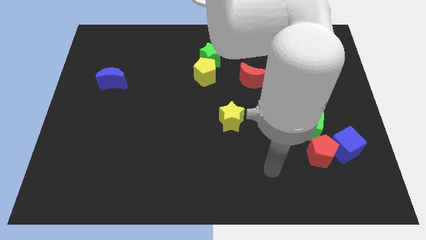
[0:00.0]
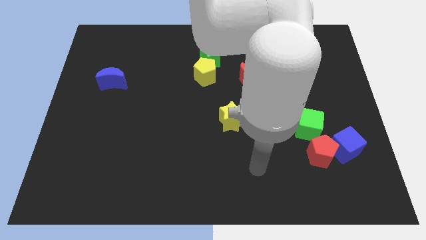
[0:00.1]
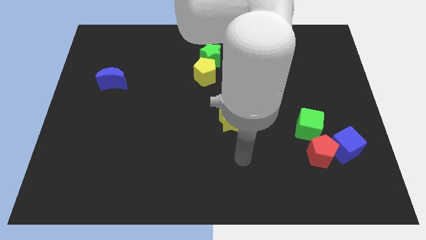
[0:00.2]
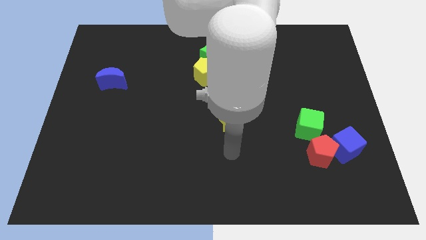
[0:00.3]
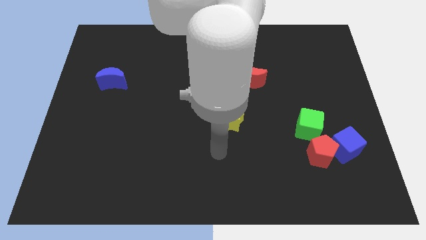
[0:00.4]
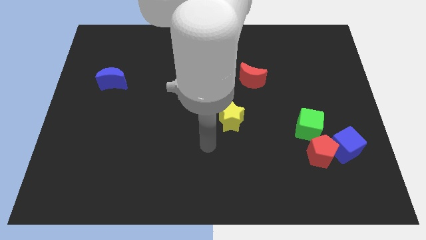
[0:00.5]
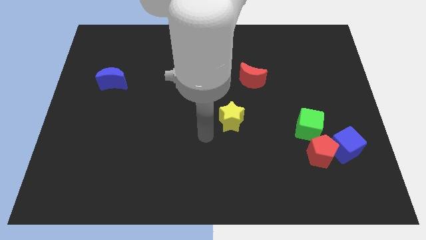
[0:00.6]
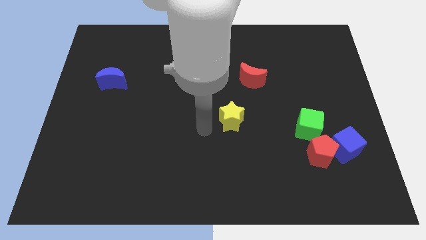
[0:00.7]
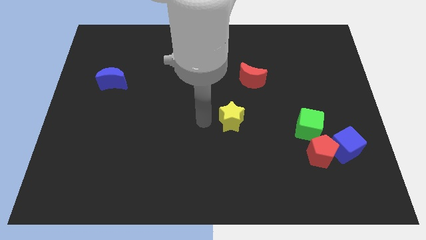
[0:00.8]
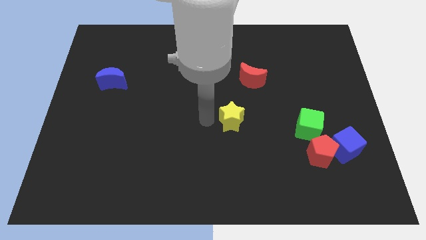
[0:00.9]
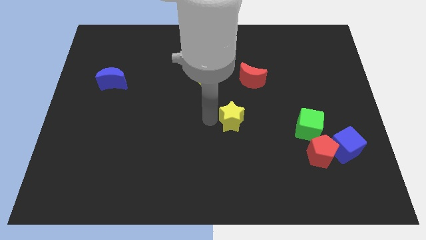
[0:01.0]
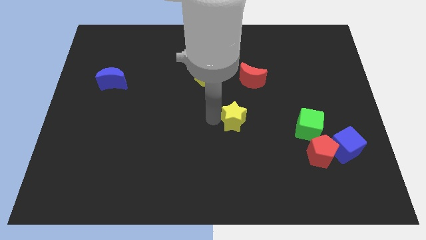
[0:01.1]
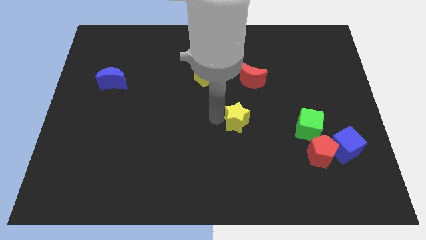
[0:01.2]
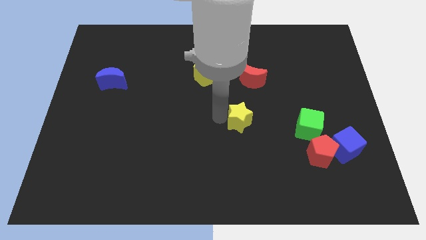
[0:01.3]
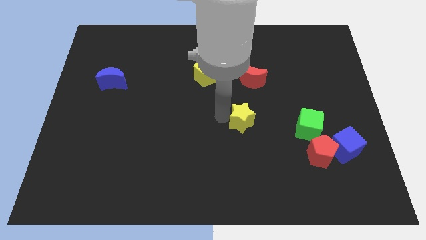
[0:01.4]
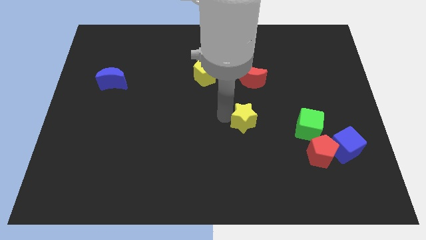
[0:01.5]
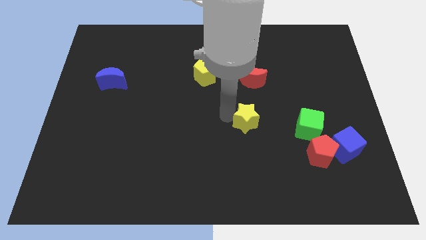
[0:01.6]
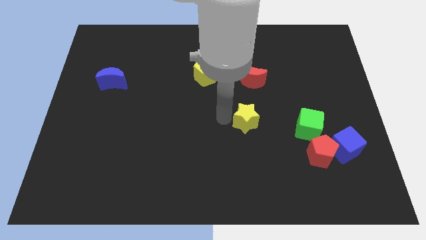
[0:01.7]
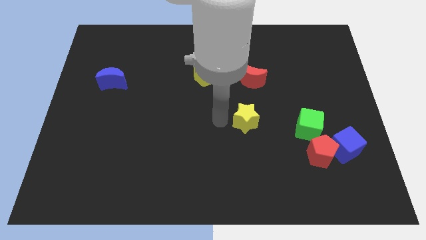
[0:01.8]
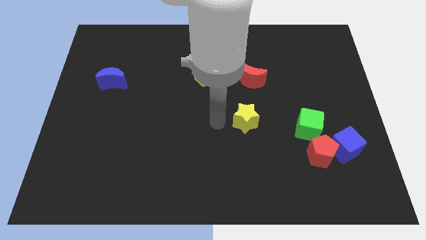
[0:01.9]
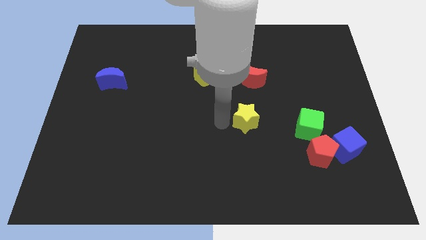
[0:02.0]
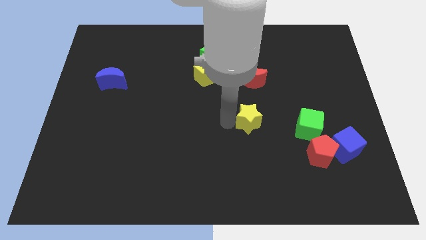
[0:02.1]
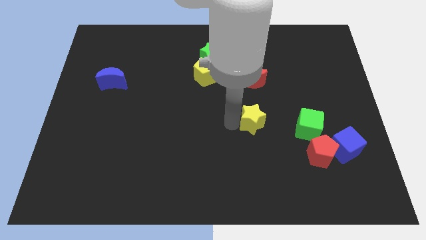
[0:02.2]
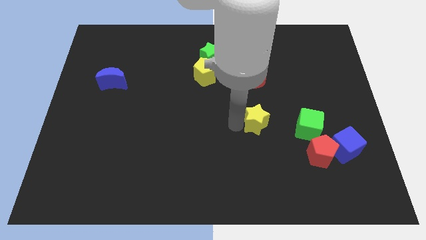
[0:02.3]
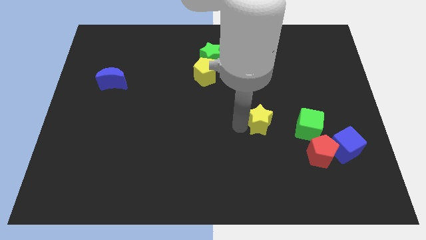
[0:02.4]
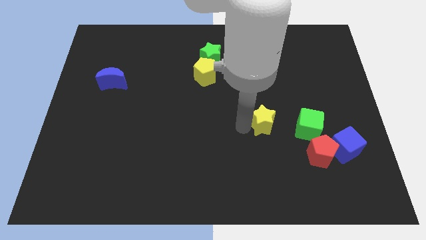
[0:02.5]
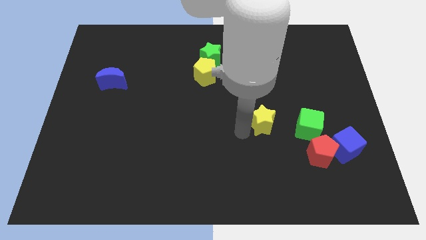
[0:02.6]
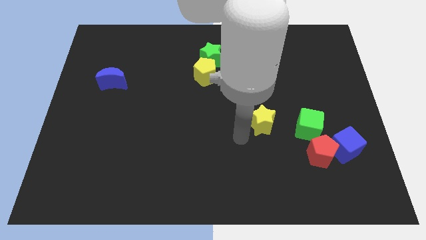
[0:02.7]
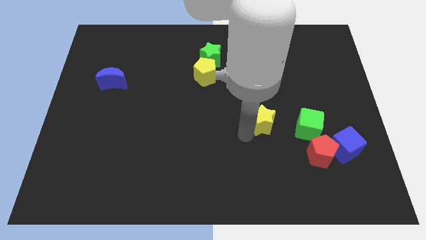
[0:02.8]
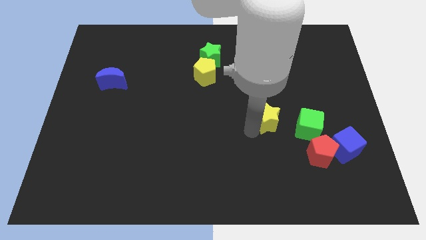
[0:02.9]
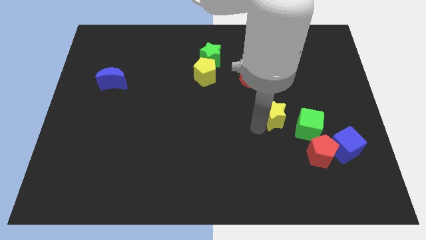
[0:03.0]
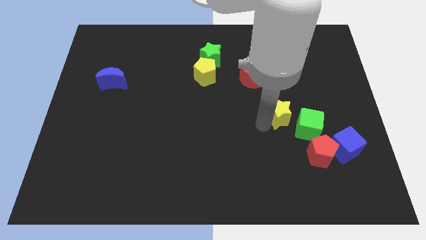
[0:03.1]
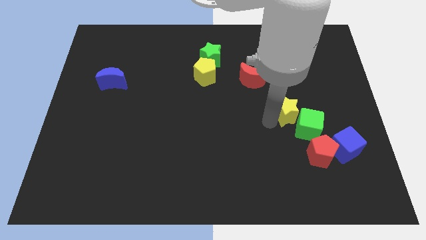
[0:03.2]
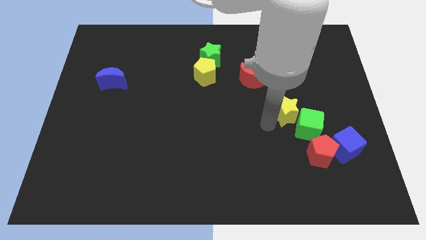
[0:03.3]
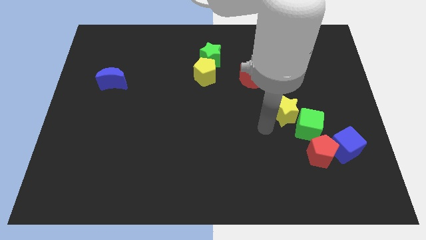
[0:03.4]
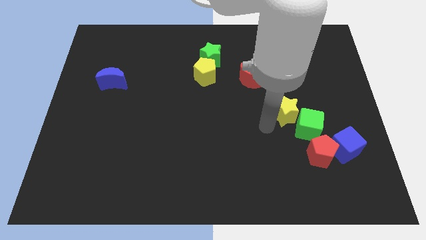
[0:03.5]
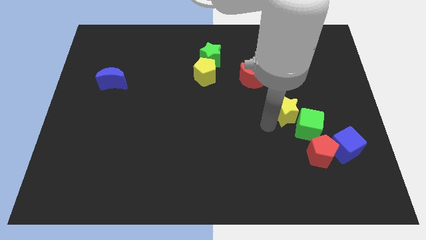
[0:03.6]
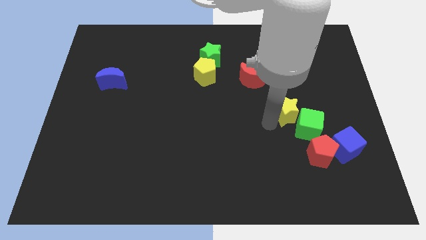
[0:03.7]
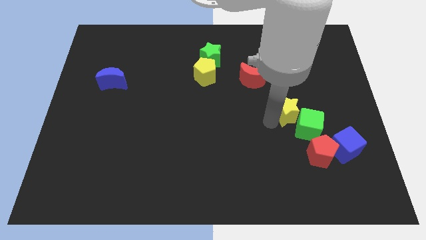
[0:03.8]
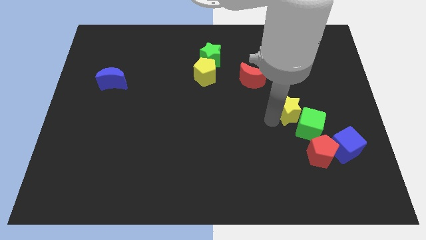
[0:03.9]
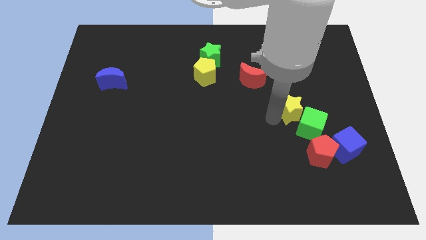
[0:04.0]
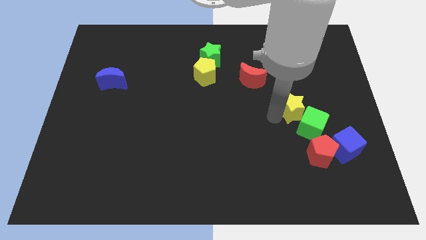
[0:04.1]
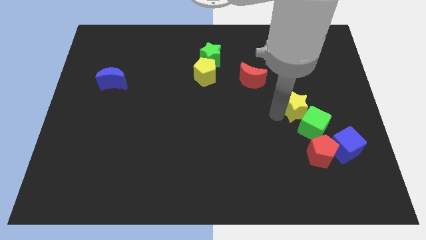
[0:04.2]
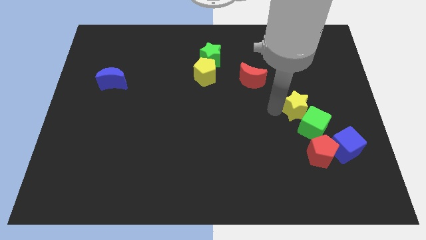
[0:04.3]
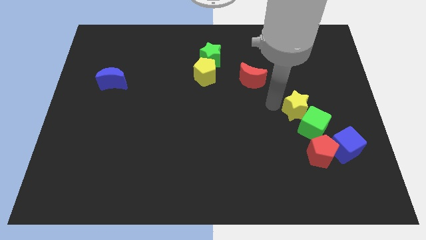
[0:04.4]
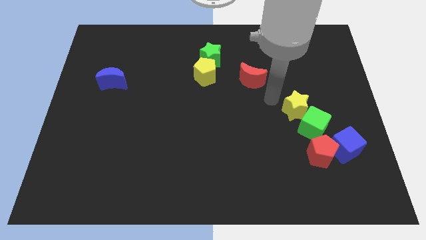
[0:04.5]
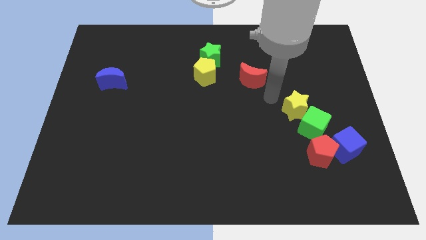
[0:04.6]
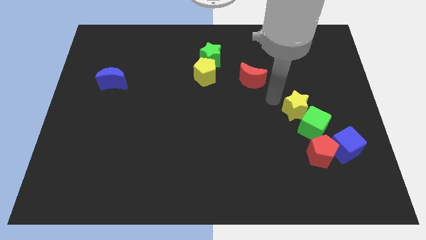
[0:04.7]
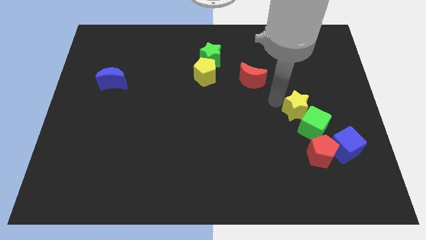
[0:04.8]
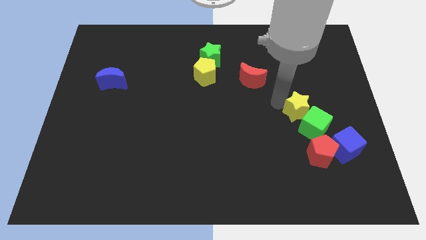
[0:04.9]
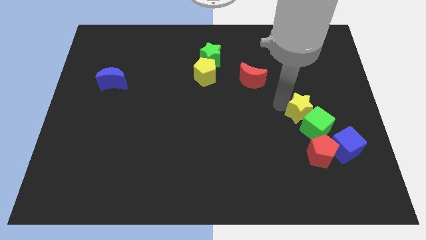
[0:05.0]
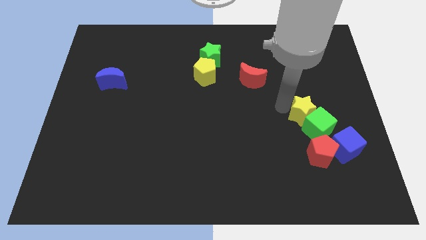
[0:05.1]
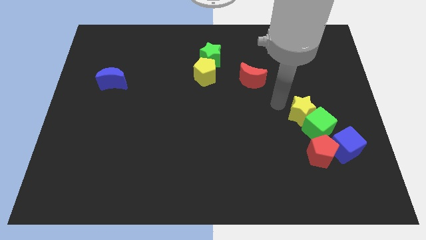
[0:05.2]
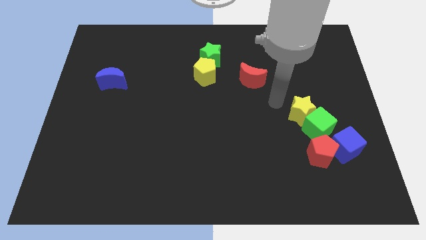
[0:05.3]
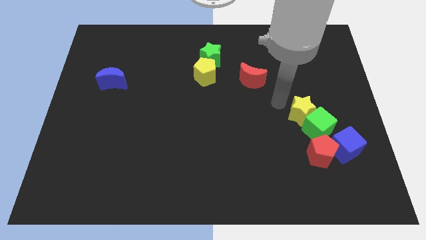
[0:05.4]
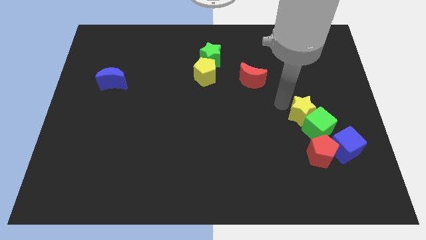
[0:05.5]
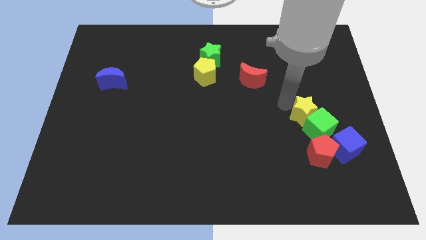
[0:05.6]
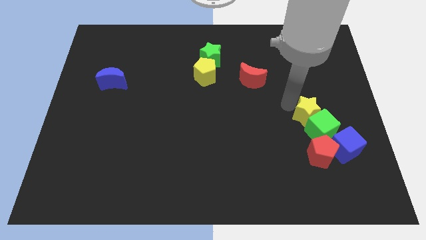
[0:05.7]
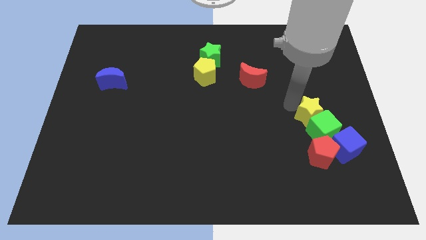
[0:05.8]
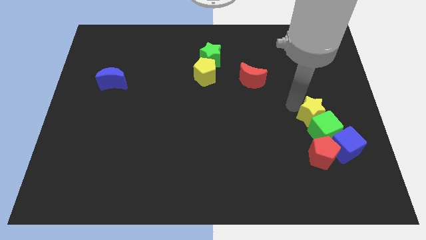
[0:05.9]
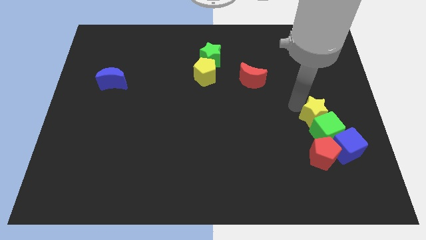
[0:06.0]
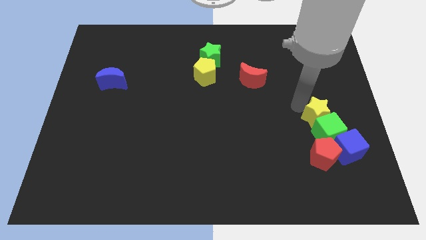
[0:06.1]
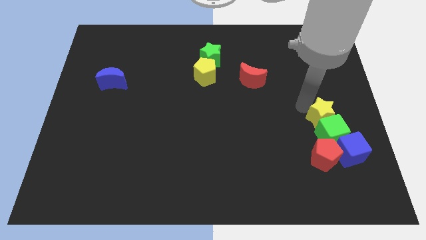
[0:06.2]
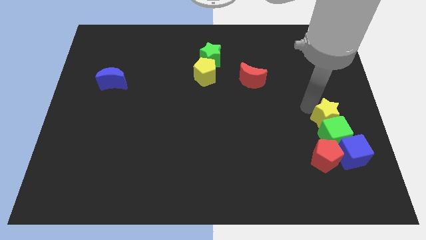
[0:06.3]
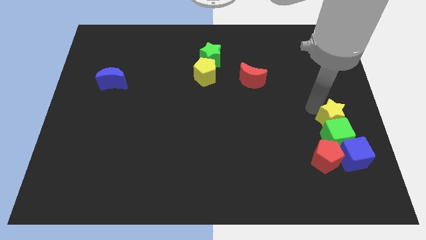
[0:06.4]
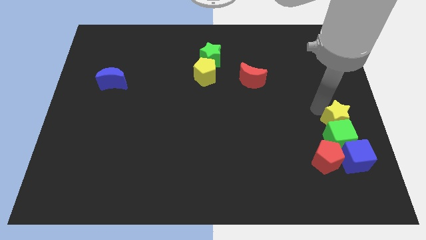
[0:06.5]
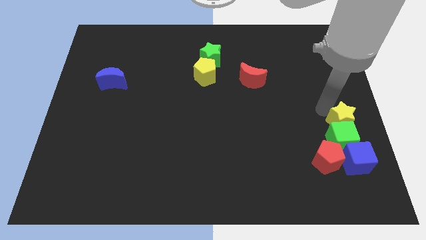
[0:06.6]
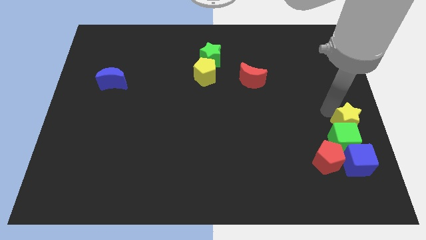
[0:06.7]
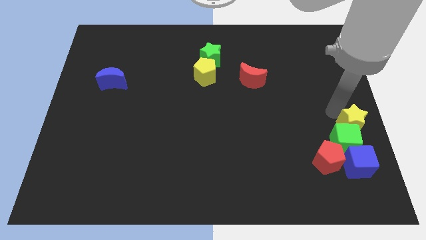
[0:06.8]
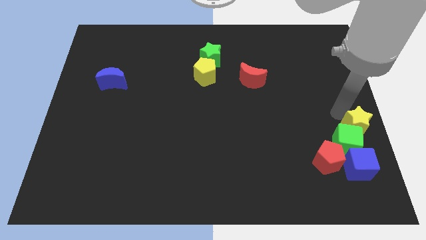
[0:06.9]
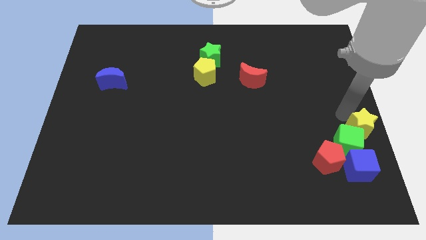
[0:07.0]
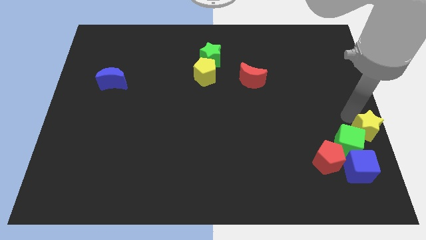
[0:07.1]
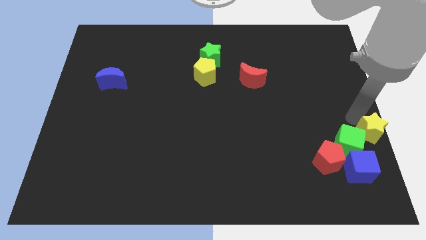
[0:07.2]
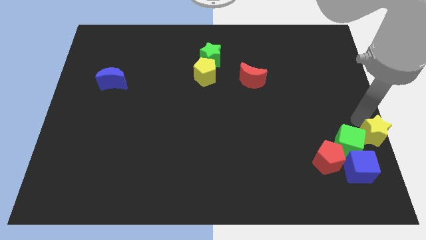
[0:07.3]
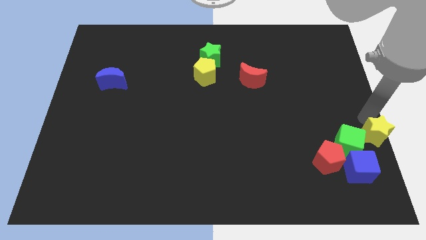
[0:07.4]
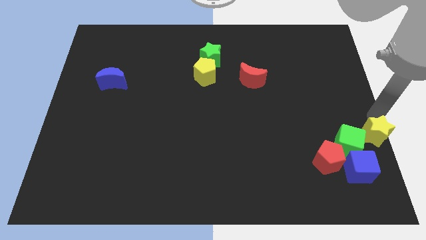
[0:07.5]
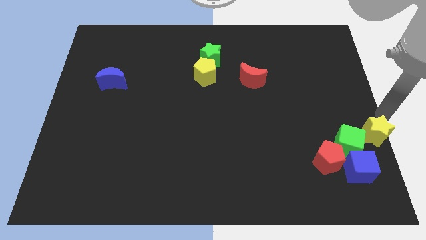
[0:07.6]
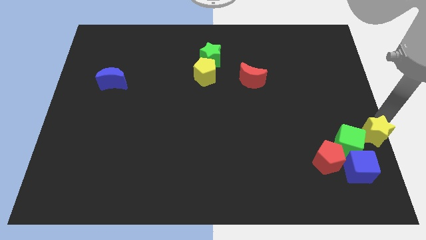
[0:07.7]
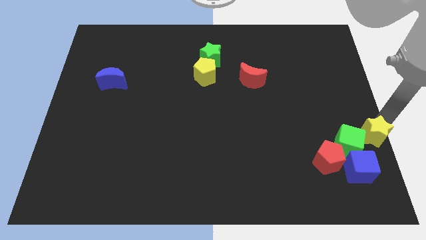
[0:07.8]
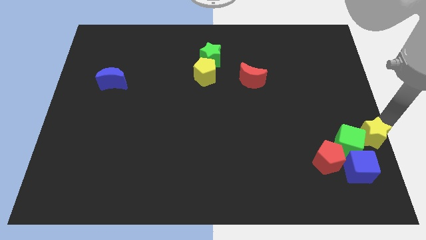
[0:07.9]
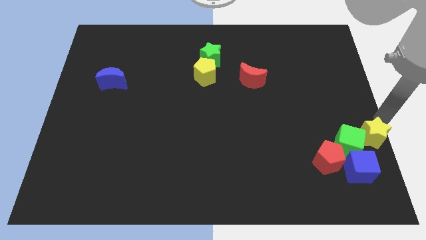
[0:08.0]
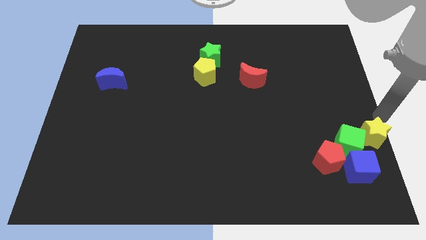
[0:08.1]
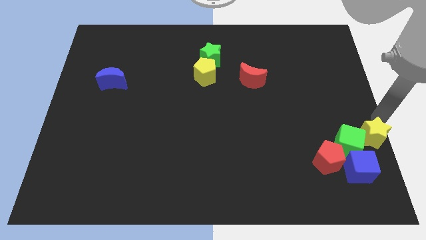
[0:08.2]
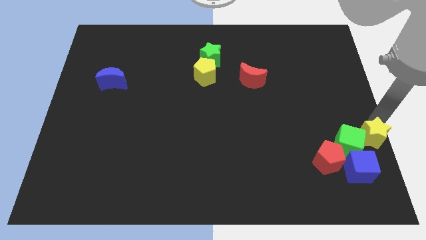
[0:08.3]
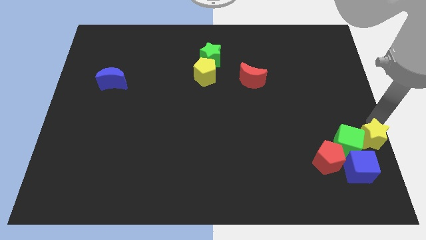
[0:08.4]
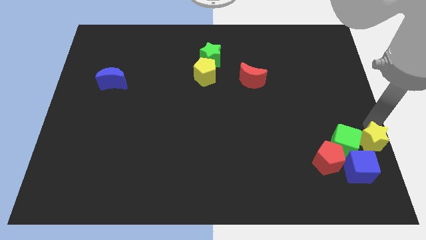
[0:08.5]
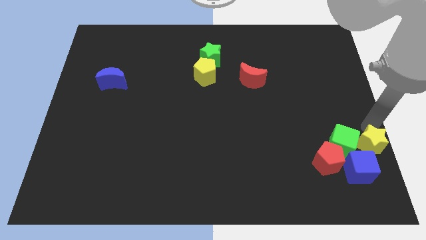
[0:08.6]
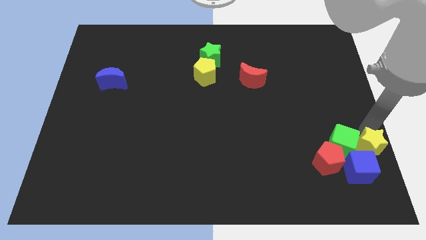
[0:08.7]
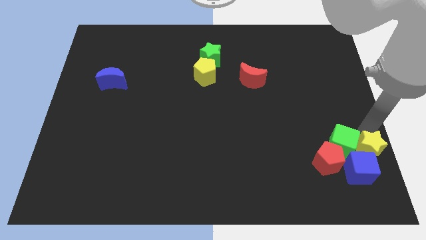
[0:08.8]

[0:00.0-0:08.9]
slide the yellow star towards the blue cube
